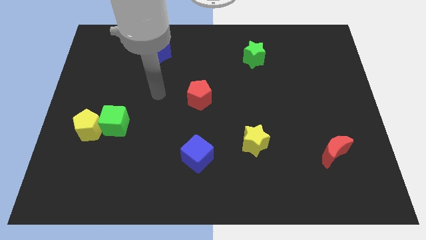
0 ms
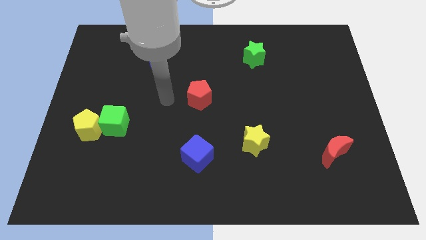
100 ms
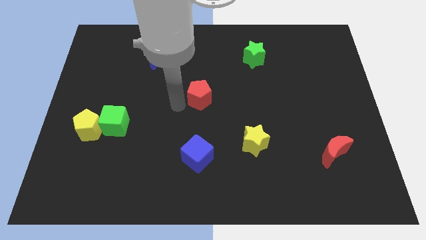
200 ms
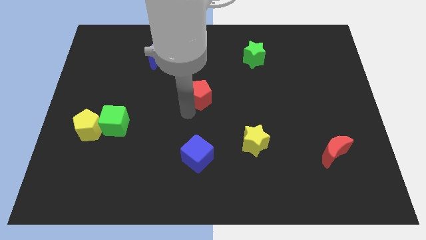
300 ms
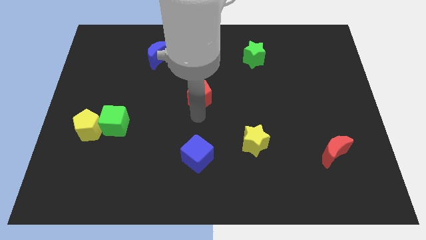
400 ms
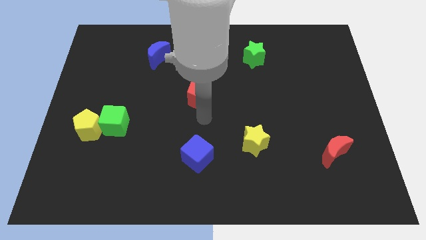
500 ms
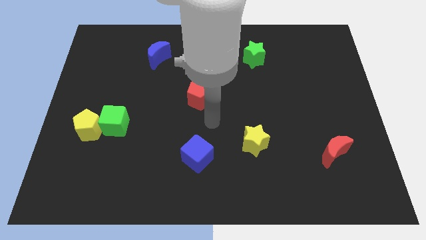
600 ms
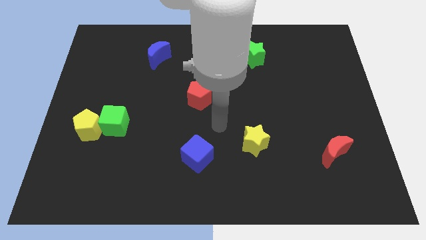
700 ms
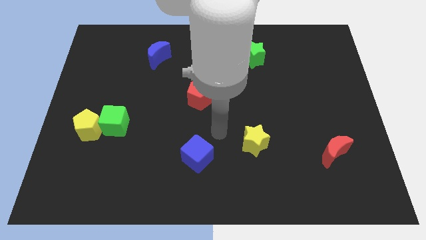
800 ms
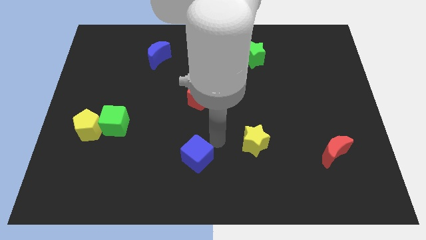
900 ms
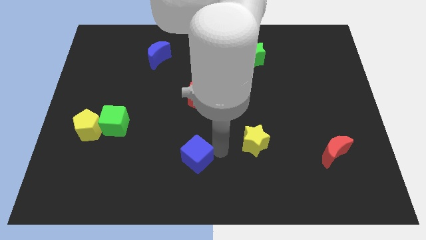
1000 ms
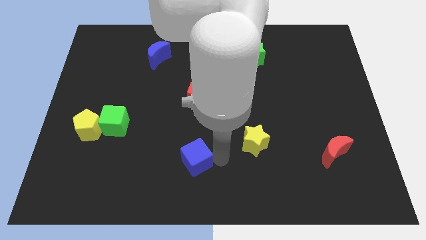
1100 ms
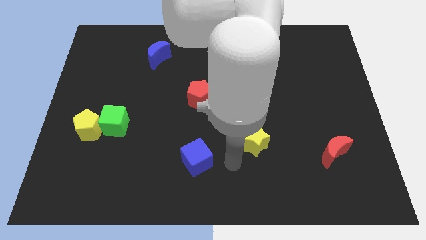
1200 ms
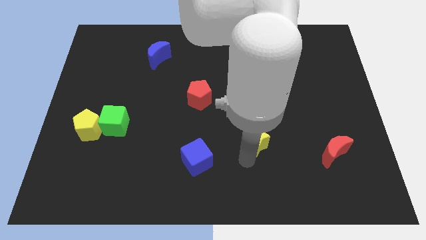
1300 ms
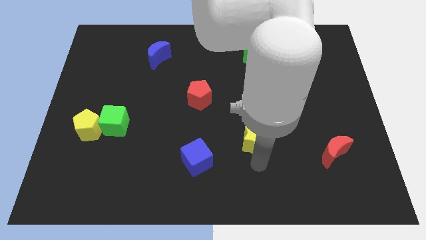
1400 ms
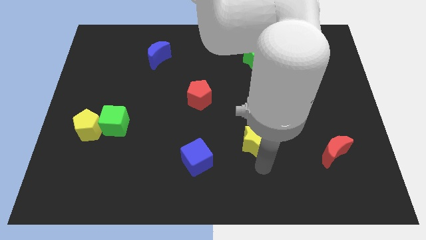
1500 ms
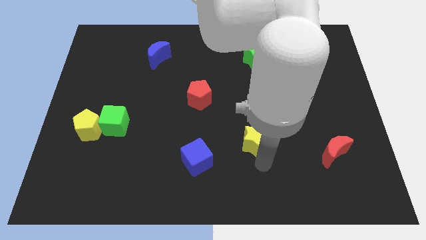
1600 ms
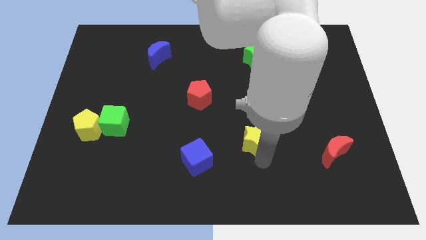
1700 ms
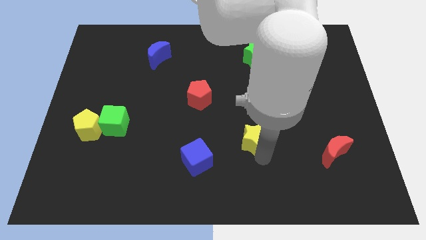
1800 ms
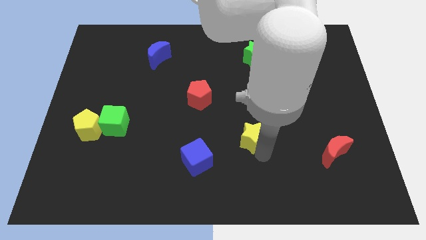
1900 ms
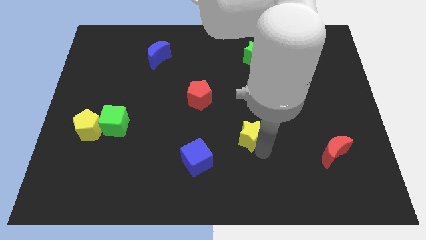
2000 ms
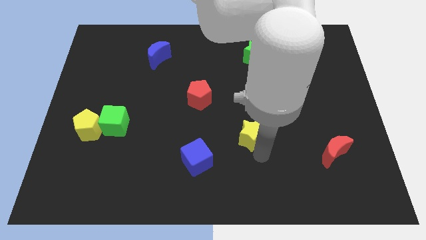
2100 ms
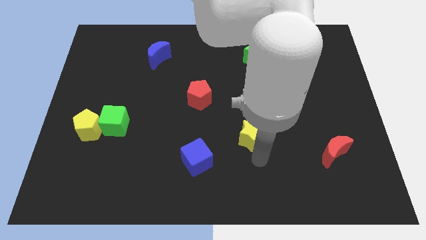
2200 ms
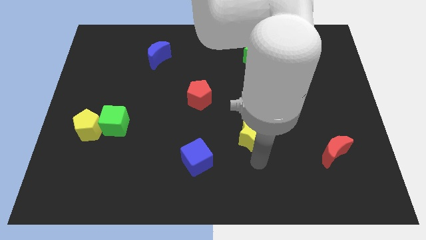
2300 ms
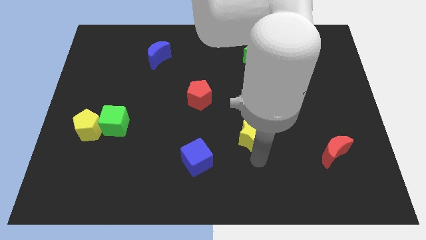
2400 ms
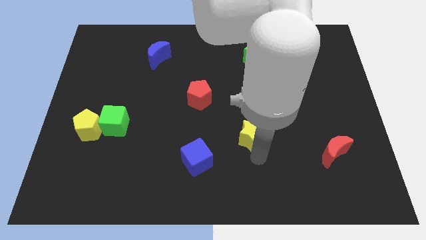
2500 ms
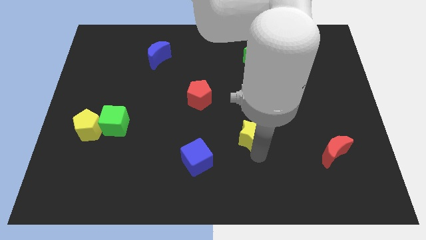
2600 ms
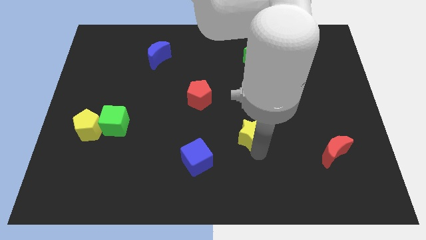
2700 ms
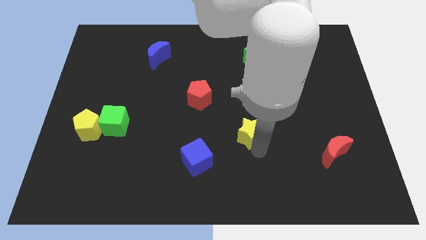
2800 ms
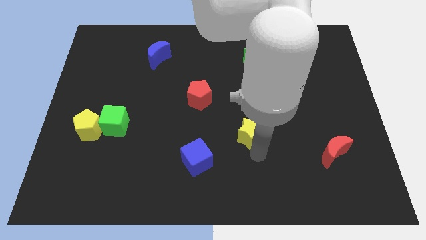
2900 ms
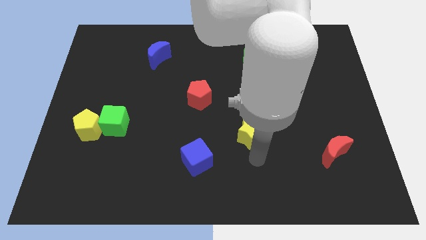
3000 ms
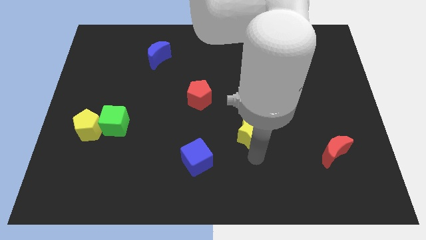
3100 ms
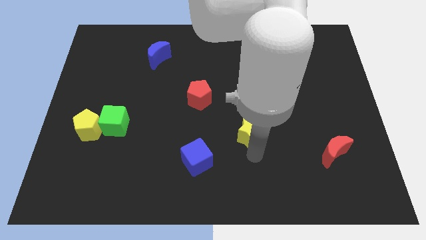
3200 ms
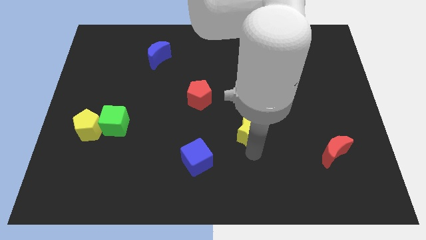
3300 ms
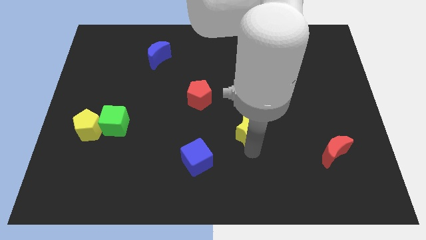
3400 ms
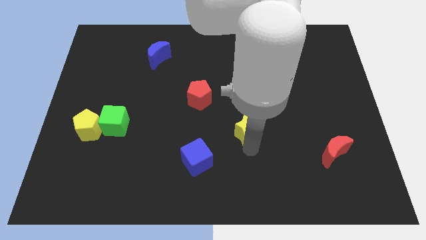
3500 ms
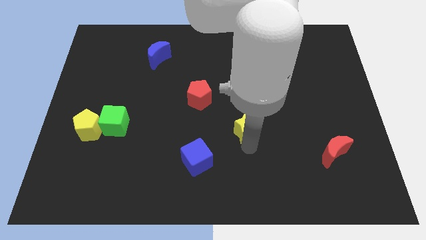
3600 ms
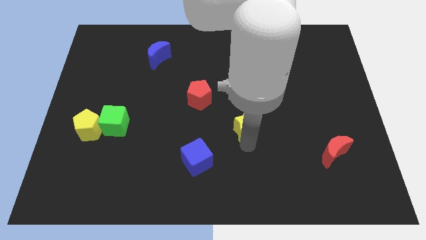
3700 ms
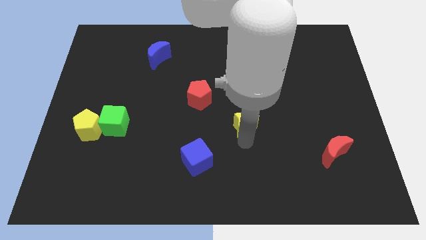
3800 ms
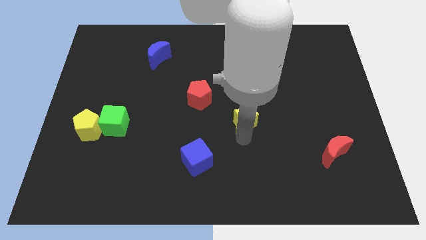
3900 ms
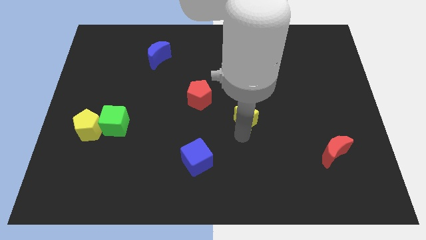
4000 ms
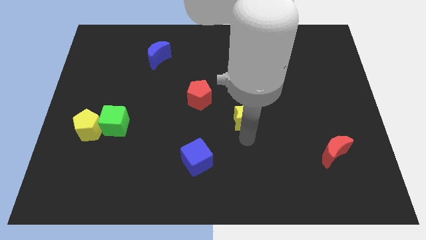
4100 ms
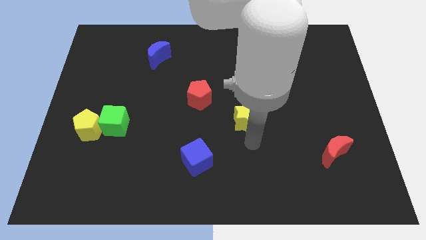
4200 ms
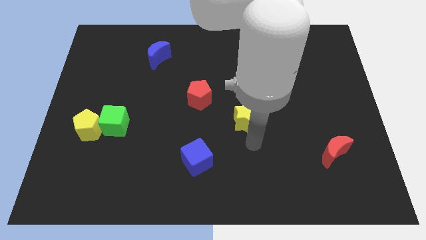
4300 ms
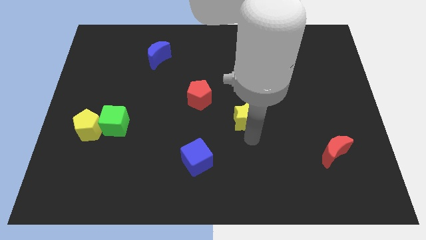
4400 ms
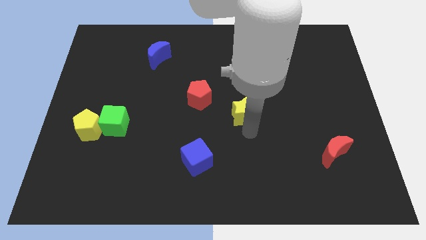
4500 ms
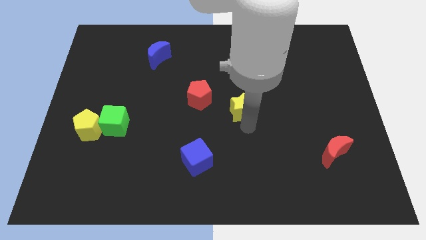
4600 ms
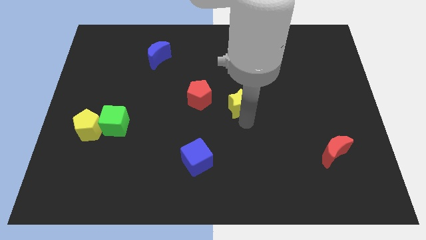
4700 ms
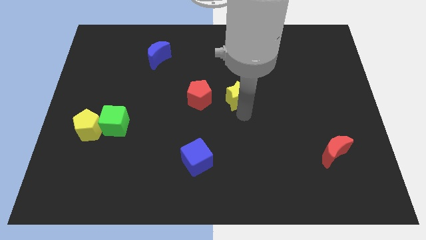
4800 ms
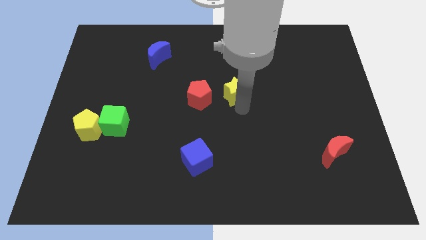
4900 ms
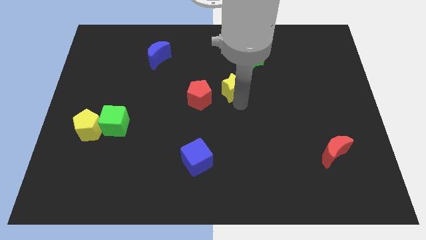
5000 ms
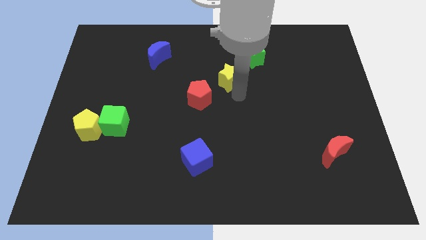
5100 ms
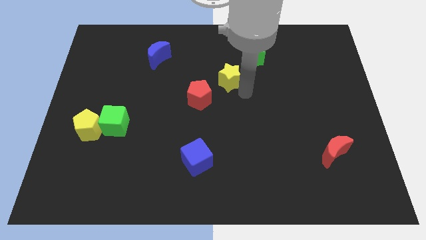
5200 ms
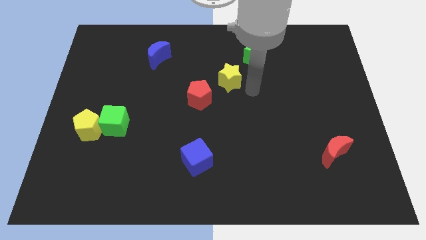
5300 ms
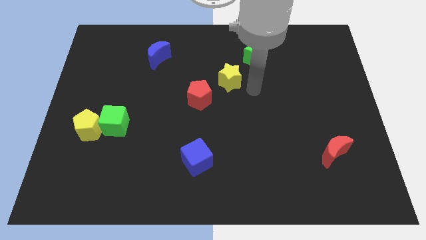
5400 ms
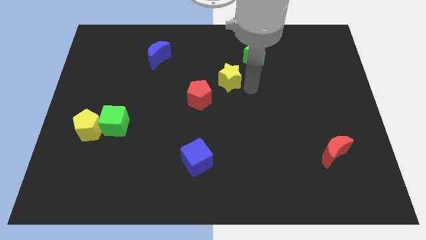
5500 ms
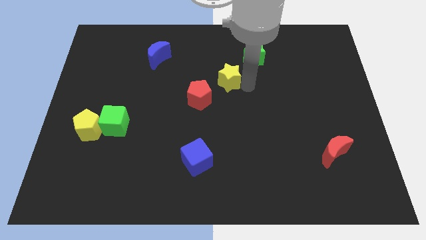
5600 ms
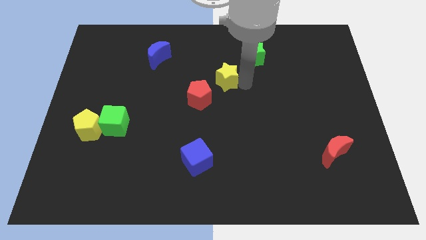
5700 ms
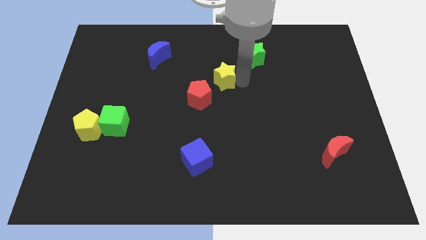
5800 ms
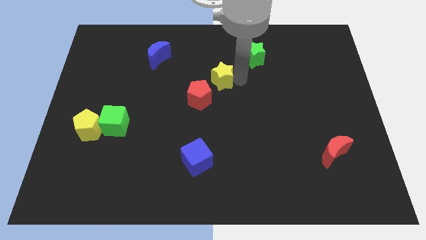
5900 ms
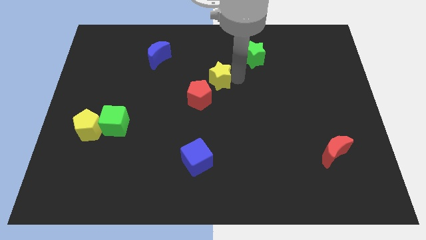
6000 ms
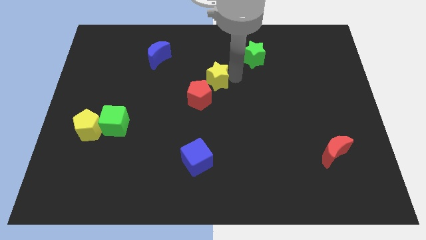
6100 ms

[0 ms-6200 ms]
put the yellow star above the red pentagon

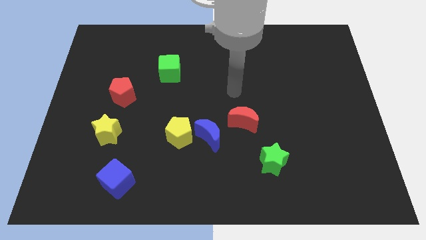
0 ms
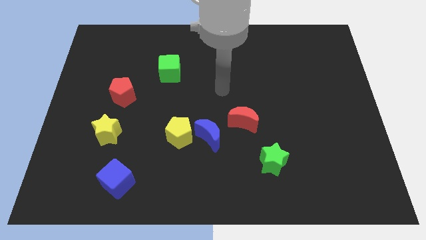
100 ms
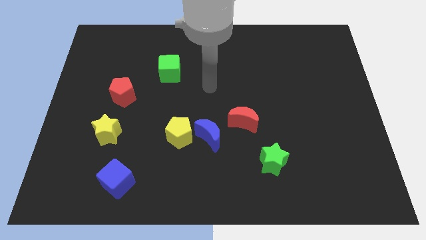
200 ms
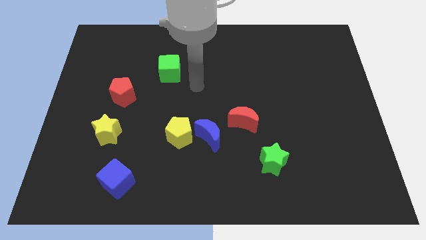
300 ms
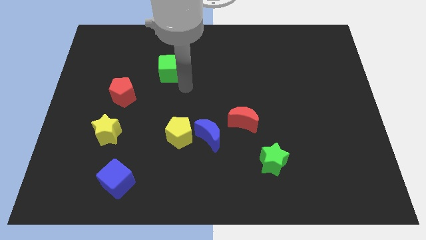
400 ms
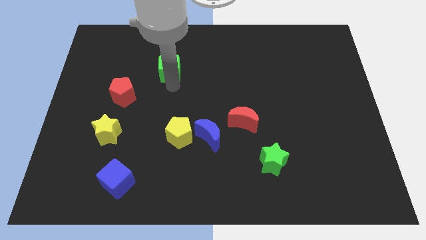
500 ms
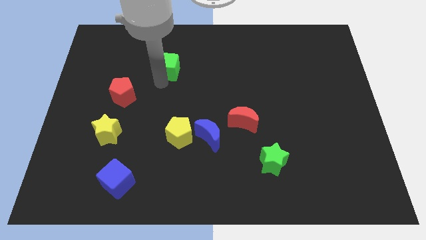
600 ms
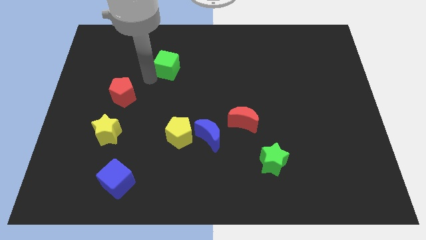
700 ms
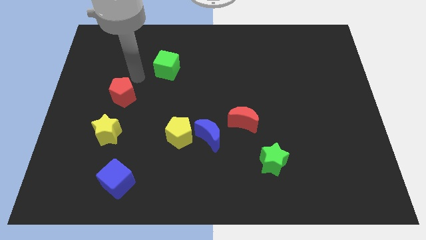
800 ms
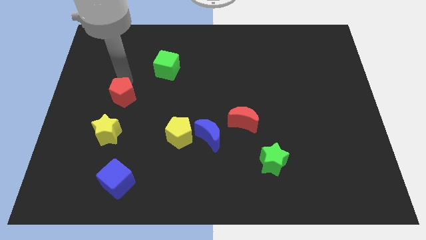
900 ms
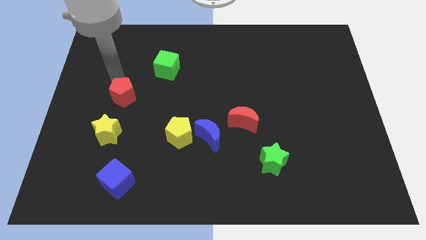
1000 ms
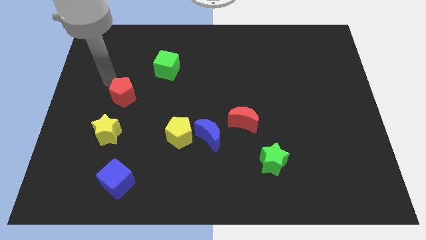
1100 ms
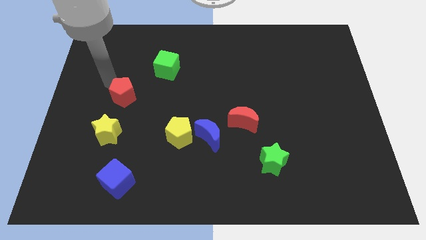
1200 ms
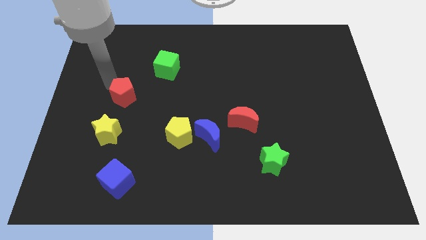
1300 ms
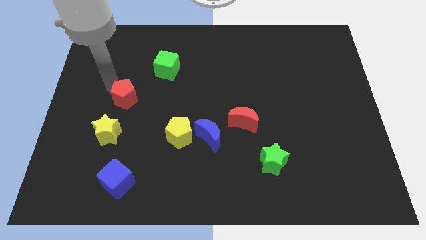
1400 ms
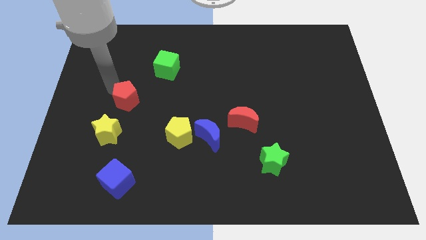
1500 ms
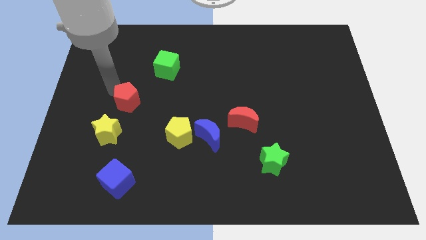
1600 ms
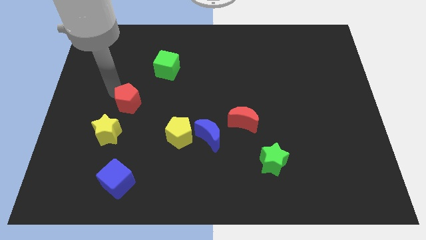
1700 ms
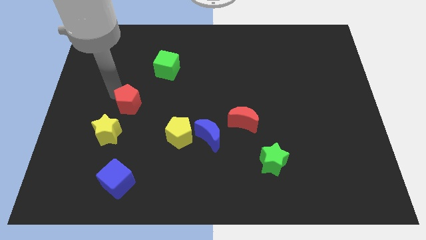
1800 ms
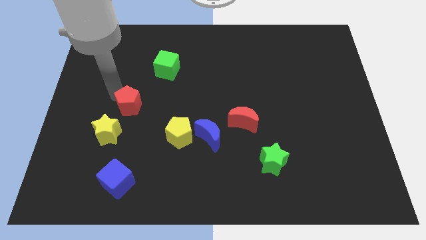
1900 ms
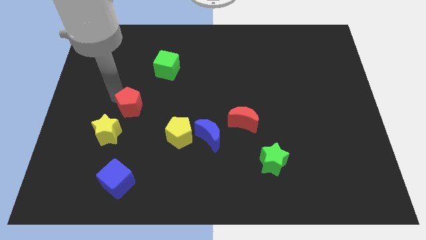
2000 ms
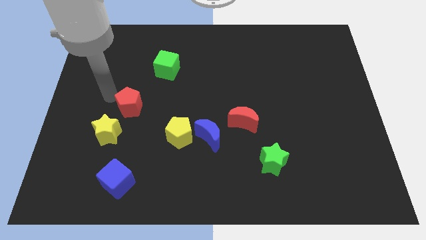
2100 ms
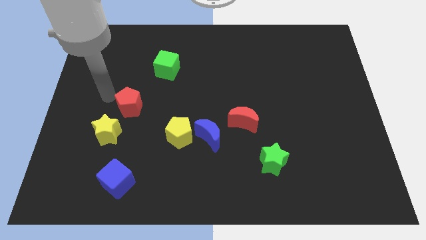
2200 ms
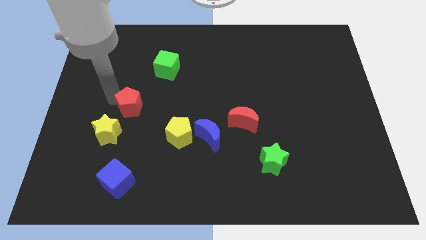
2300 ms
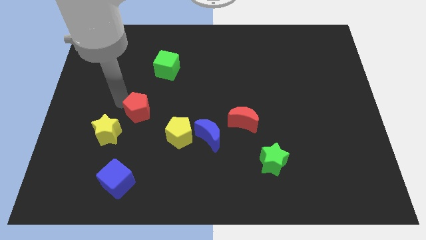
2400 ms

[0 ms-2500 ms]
slide the red pentagon to the top left side of the yellow pentagon
